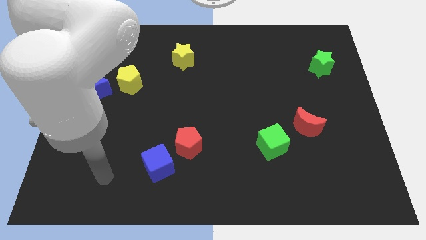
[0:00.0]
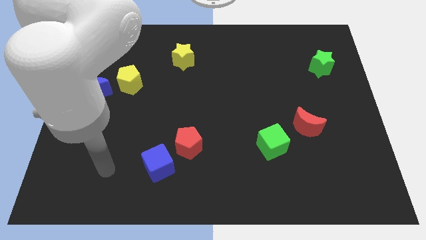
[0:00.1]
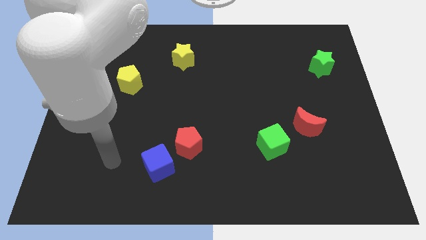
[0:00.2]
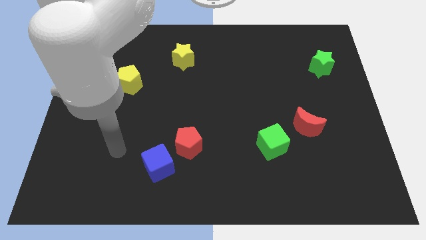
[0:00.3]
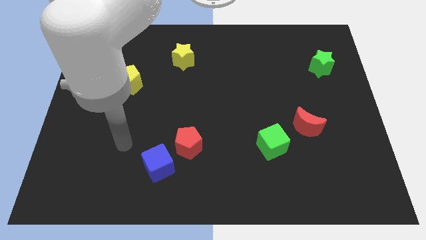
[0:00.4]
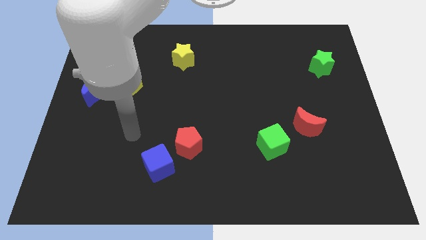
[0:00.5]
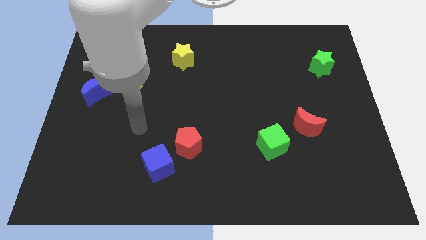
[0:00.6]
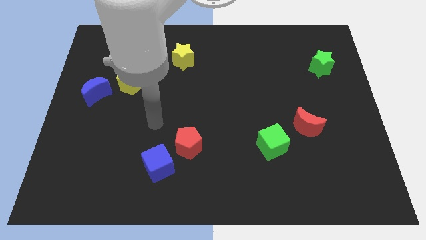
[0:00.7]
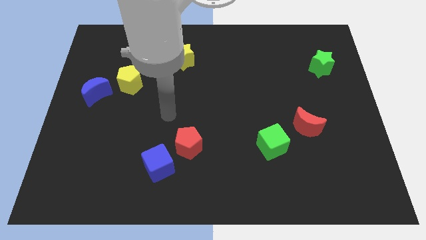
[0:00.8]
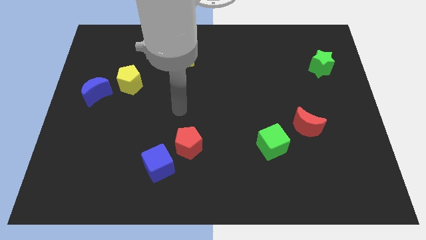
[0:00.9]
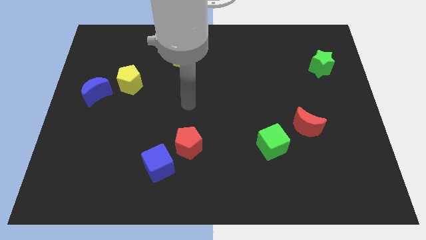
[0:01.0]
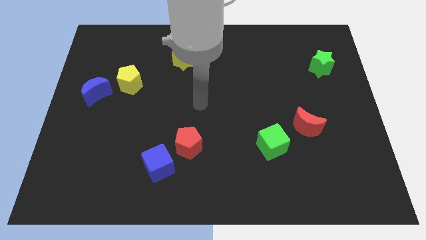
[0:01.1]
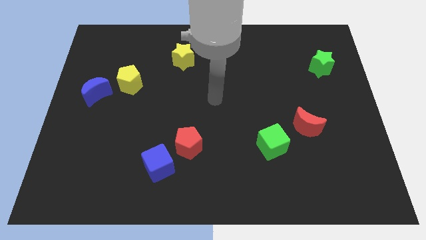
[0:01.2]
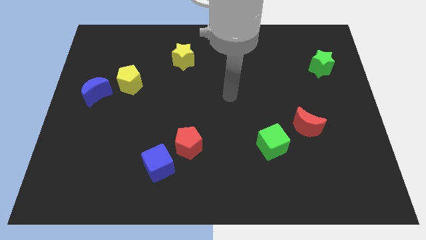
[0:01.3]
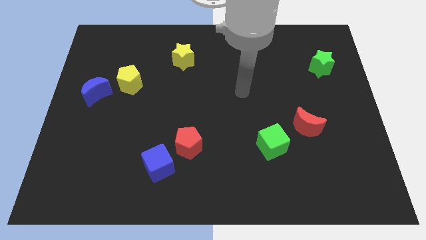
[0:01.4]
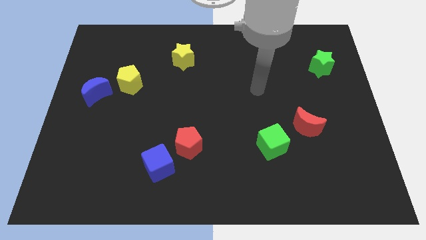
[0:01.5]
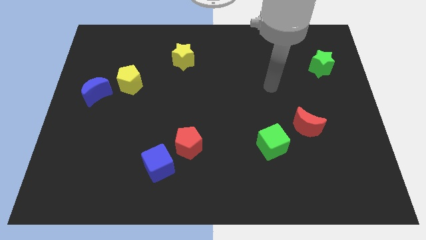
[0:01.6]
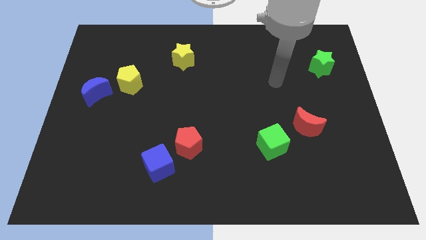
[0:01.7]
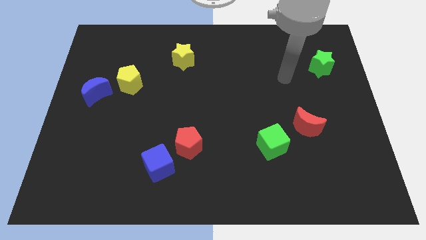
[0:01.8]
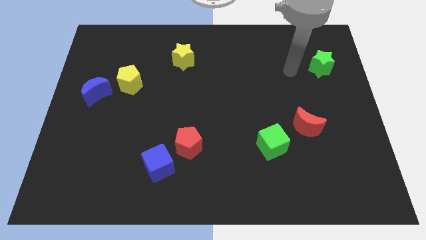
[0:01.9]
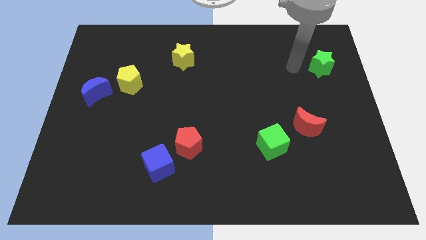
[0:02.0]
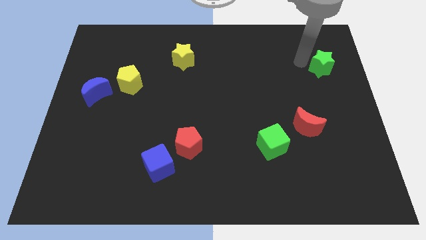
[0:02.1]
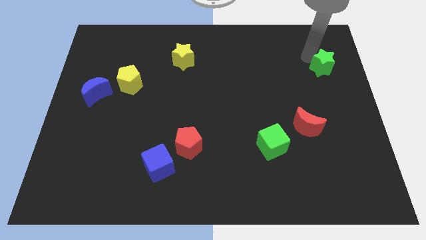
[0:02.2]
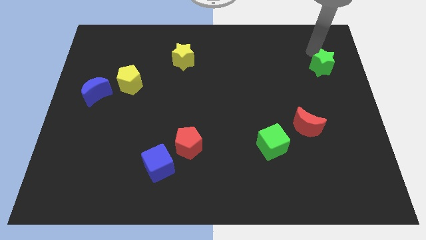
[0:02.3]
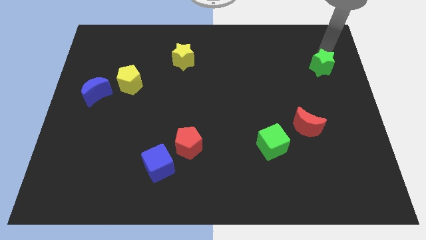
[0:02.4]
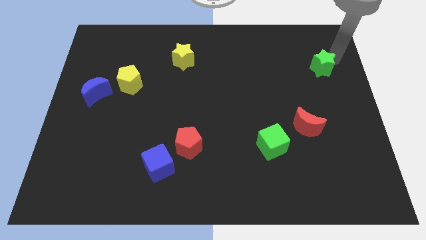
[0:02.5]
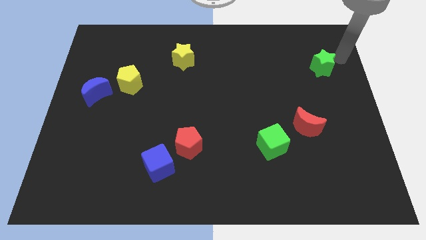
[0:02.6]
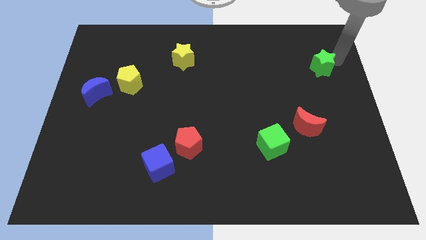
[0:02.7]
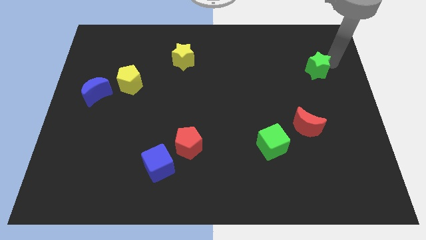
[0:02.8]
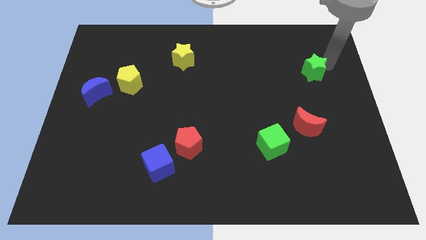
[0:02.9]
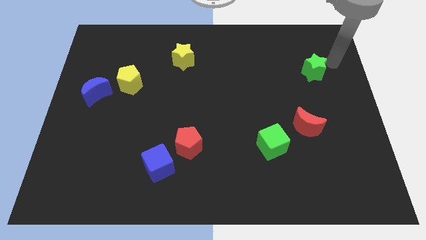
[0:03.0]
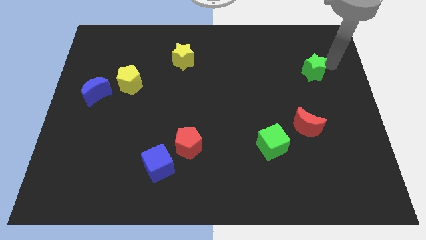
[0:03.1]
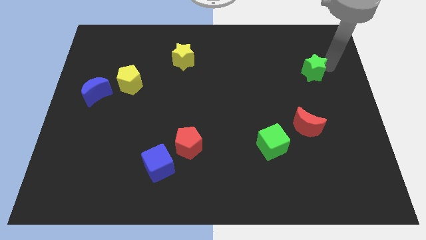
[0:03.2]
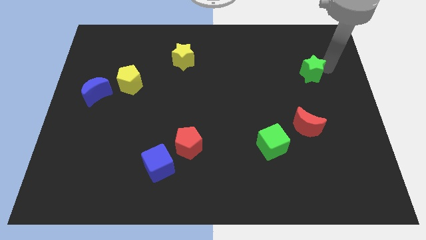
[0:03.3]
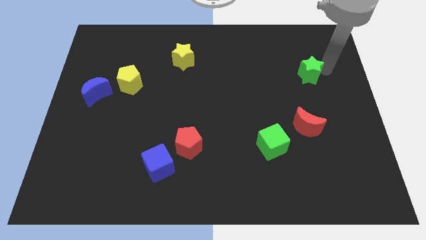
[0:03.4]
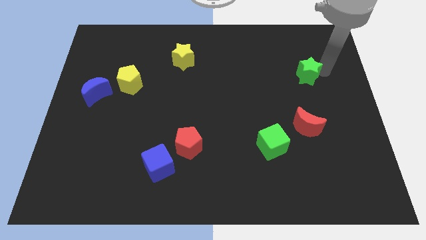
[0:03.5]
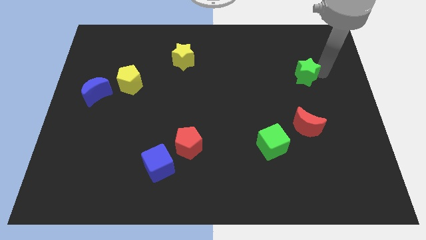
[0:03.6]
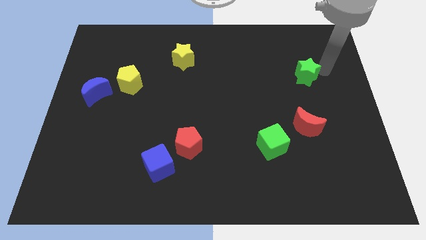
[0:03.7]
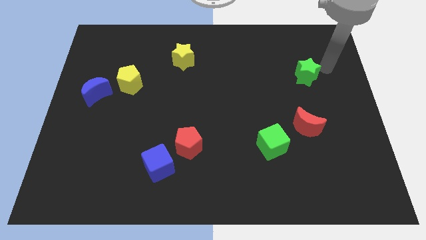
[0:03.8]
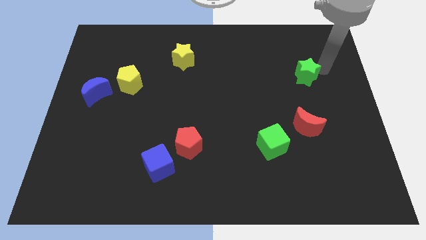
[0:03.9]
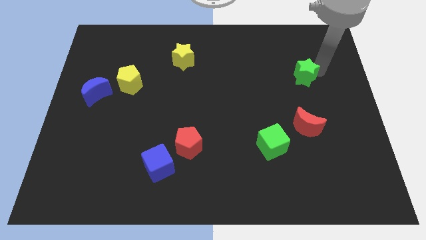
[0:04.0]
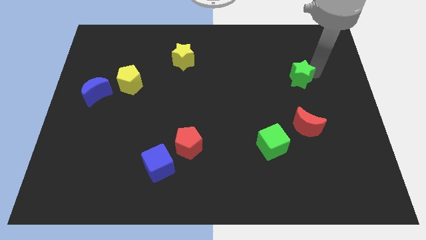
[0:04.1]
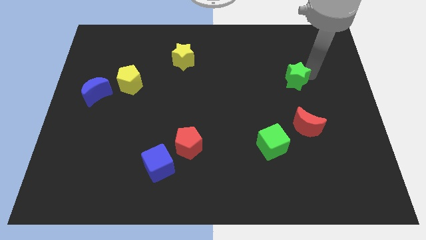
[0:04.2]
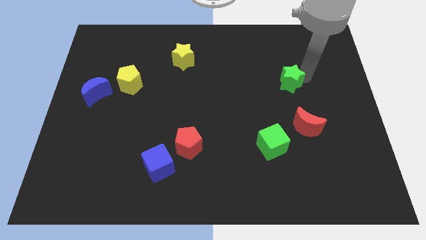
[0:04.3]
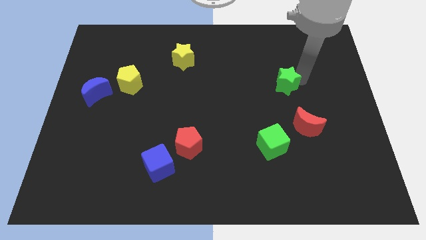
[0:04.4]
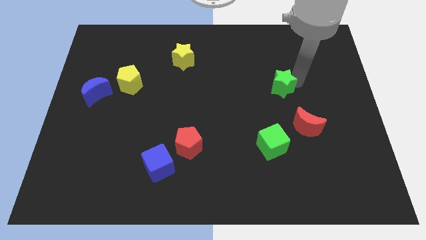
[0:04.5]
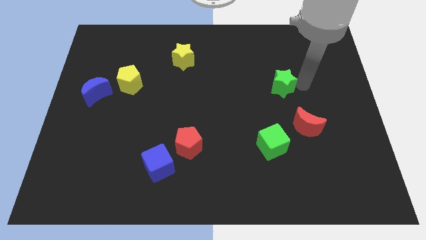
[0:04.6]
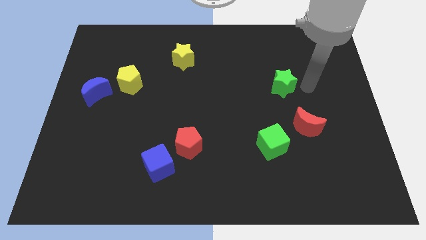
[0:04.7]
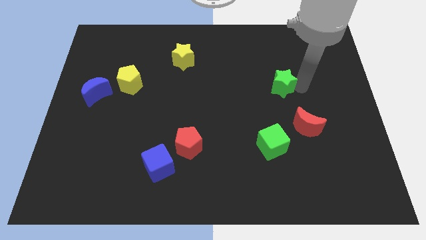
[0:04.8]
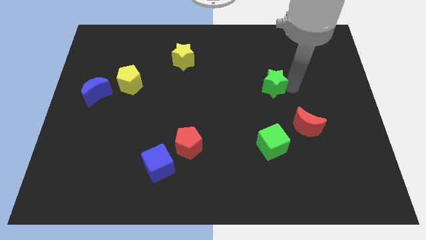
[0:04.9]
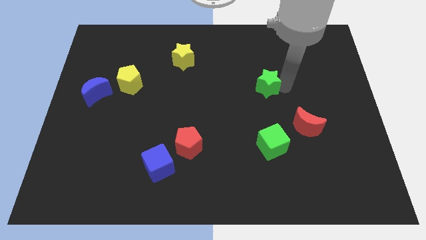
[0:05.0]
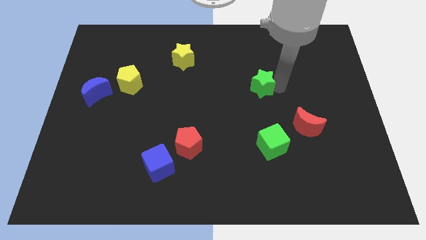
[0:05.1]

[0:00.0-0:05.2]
move the green star to the center of the board

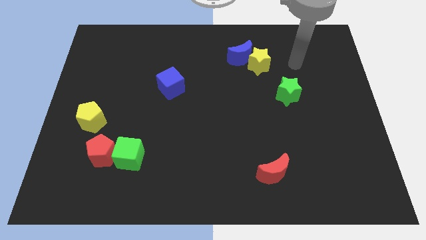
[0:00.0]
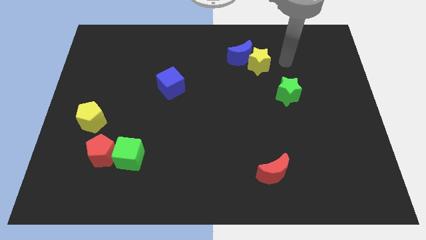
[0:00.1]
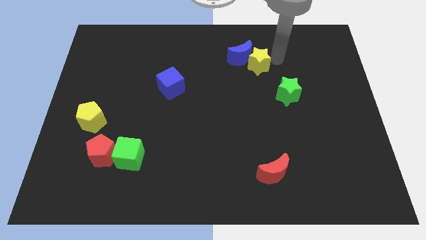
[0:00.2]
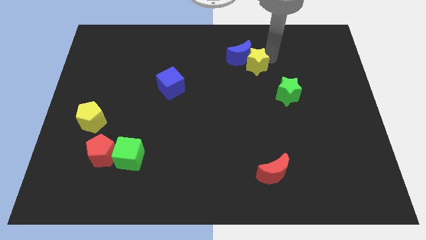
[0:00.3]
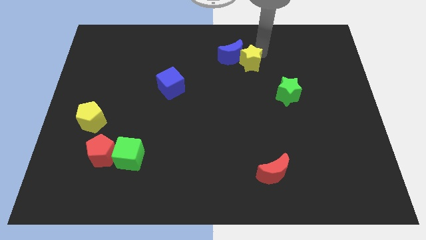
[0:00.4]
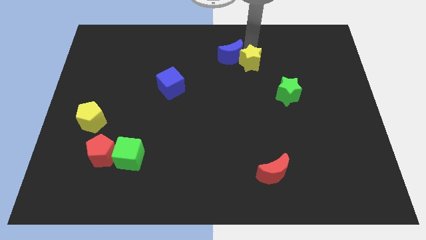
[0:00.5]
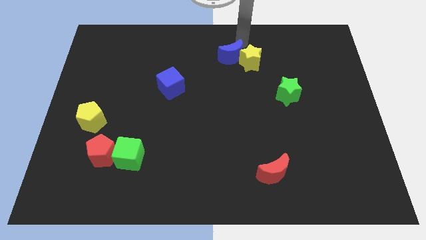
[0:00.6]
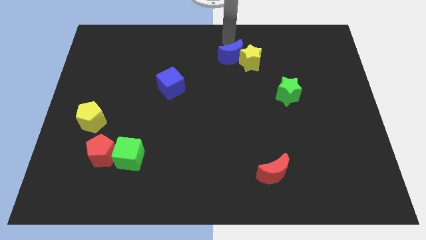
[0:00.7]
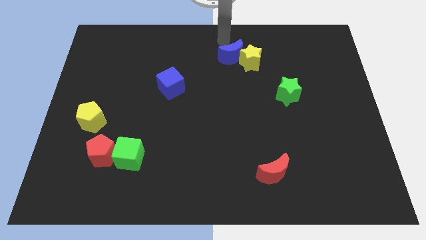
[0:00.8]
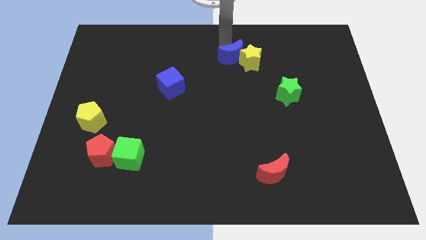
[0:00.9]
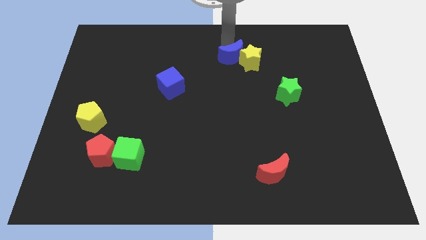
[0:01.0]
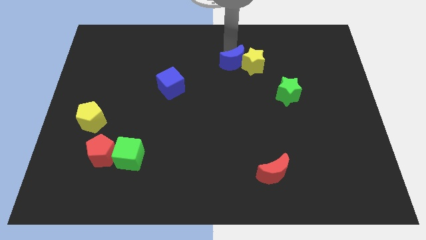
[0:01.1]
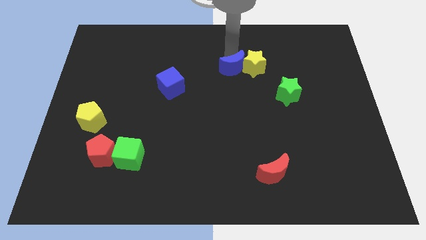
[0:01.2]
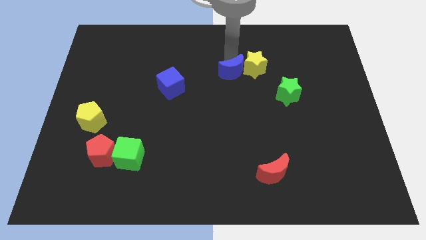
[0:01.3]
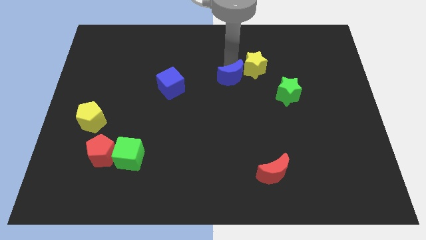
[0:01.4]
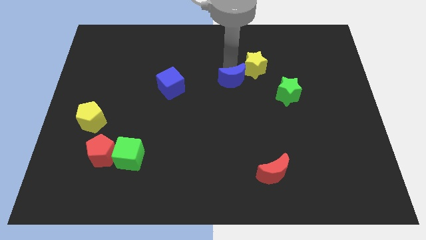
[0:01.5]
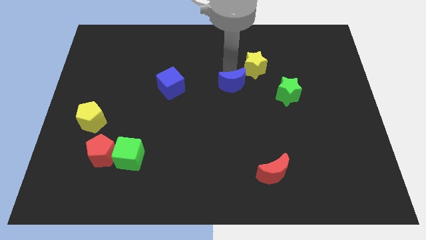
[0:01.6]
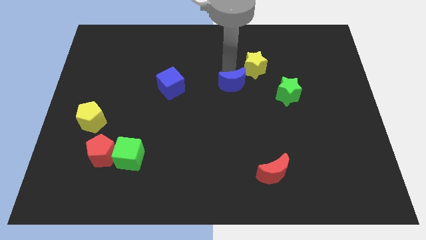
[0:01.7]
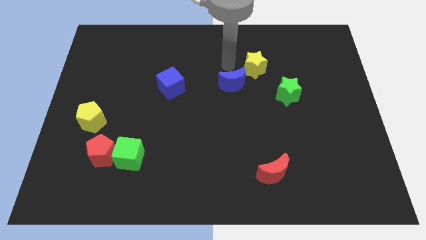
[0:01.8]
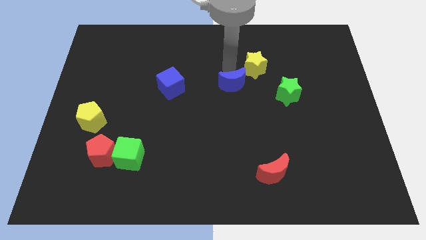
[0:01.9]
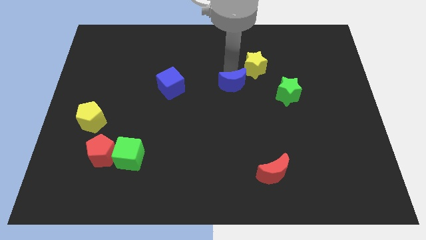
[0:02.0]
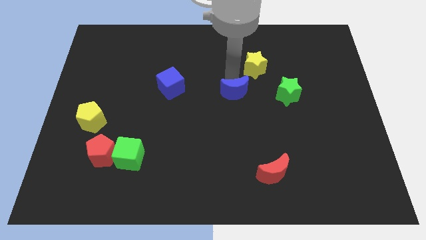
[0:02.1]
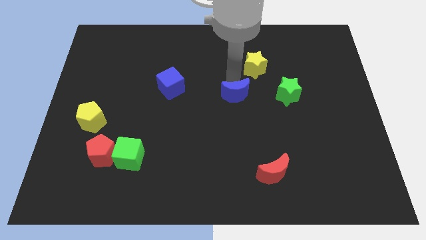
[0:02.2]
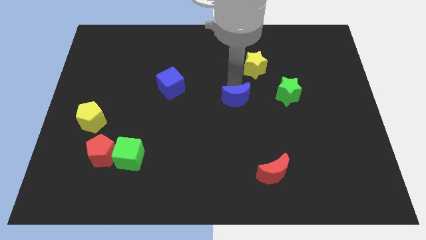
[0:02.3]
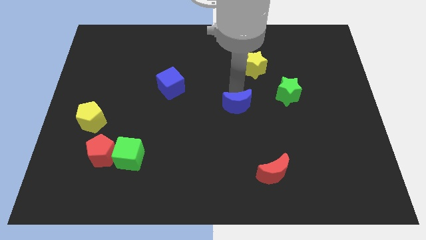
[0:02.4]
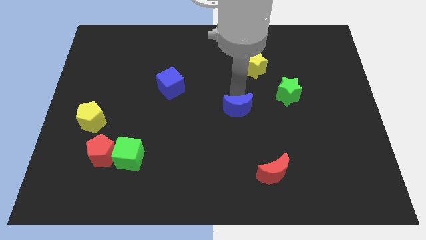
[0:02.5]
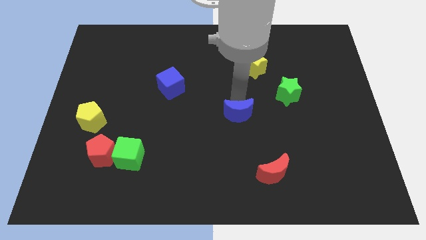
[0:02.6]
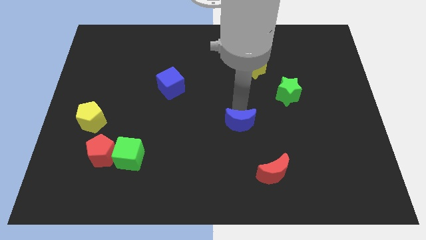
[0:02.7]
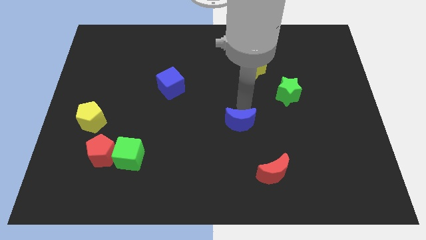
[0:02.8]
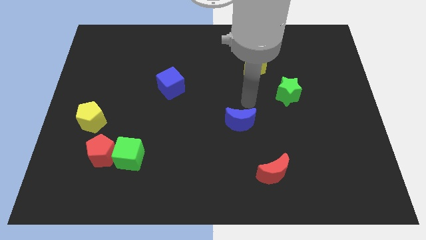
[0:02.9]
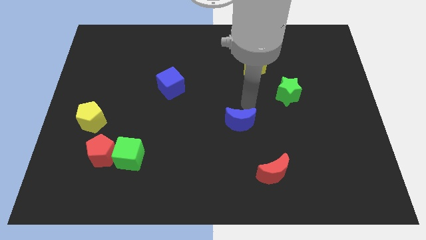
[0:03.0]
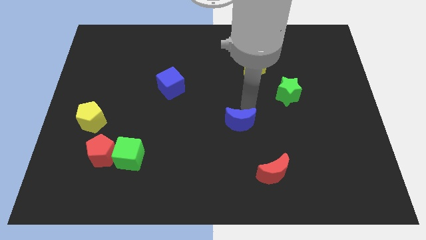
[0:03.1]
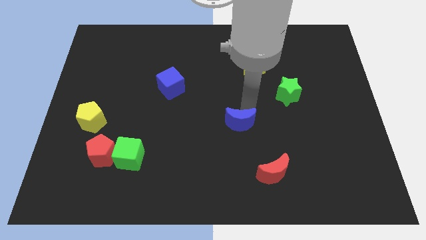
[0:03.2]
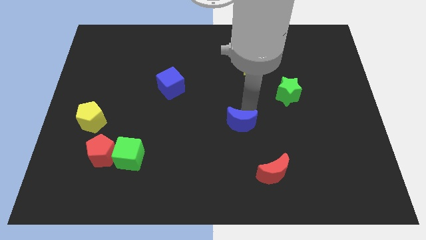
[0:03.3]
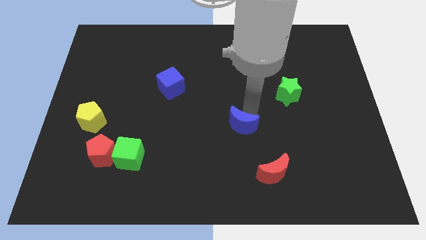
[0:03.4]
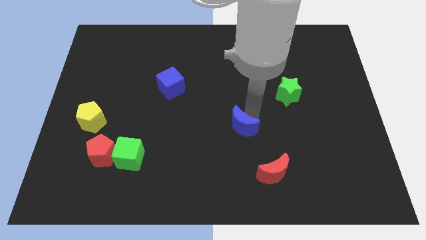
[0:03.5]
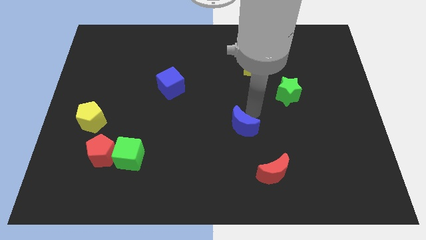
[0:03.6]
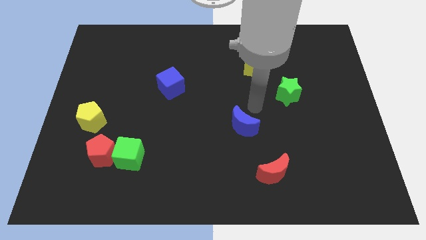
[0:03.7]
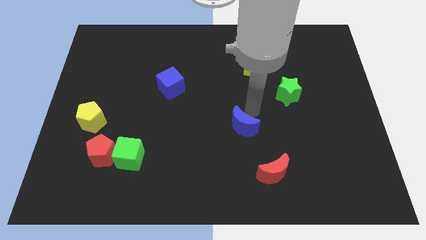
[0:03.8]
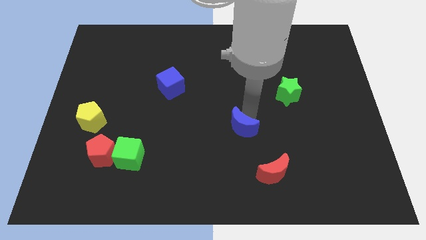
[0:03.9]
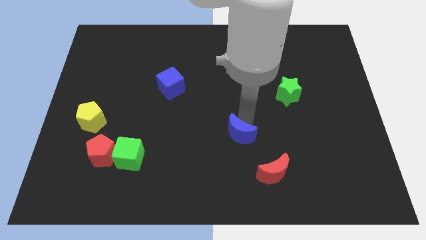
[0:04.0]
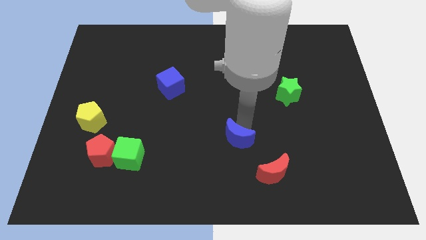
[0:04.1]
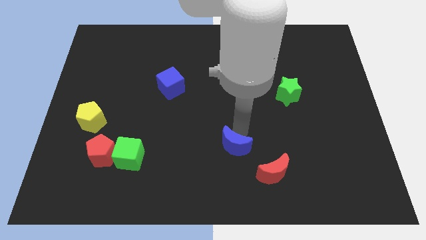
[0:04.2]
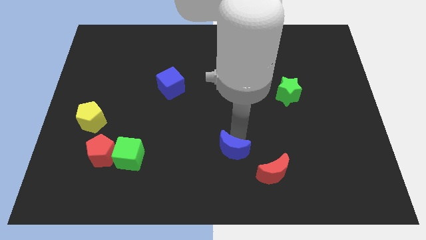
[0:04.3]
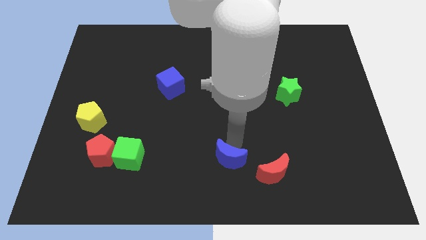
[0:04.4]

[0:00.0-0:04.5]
move the blue moon to the bottom side
